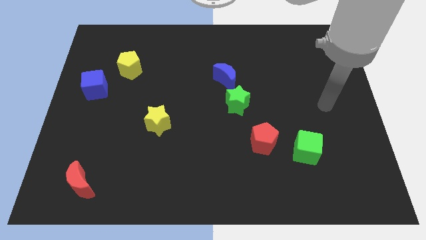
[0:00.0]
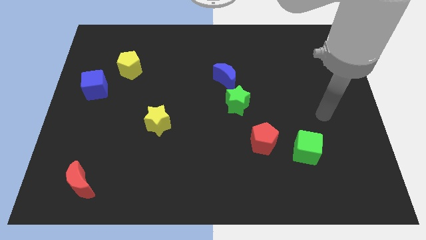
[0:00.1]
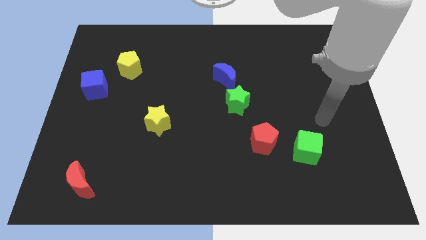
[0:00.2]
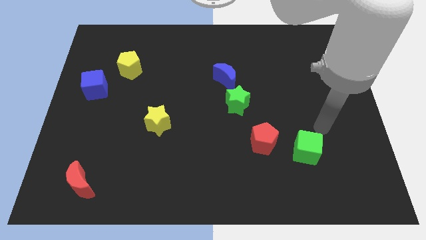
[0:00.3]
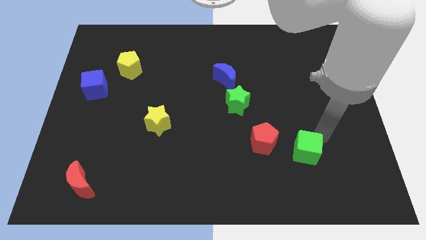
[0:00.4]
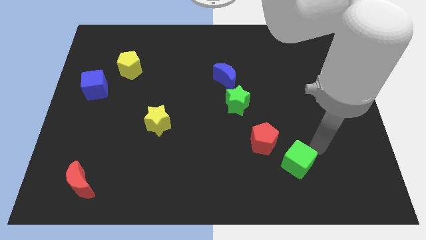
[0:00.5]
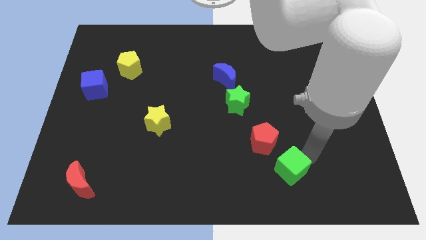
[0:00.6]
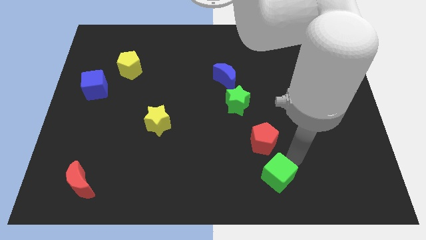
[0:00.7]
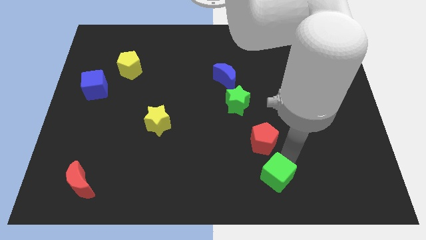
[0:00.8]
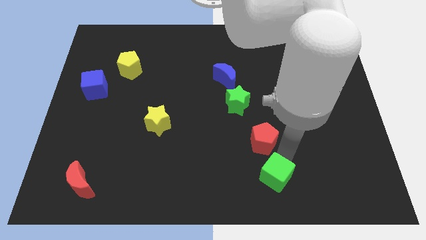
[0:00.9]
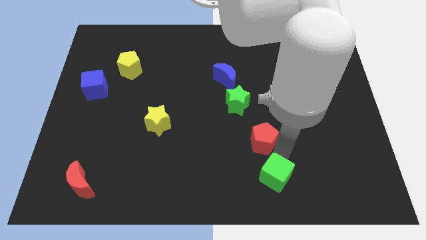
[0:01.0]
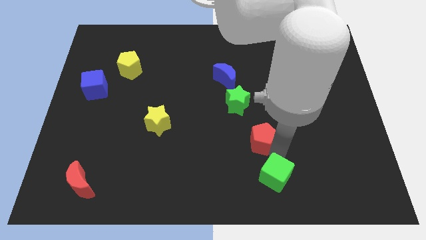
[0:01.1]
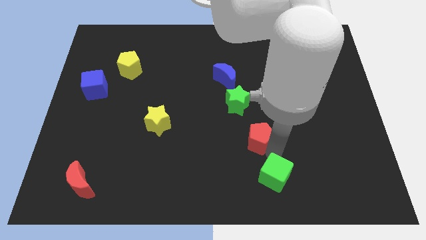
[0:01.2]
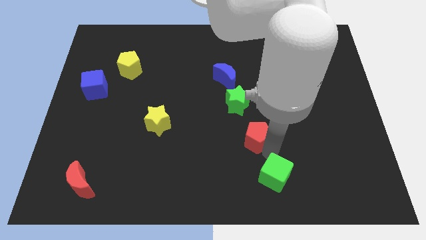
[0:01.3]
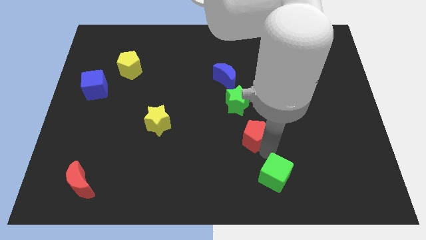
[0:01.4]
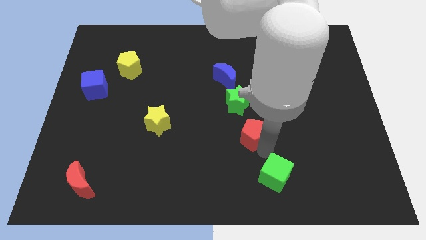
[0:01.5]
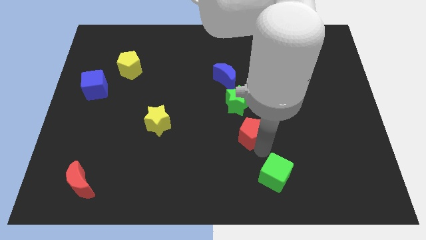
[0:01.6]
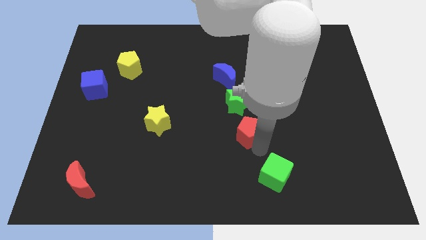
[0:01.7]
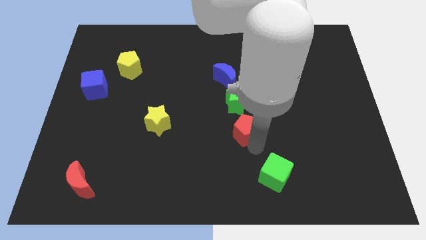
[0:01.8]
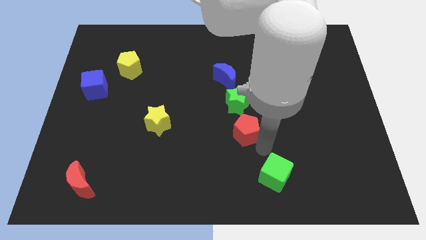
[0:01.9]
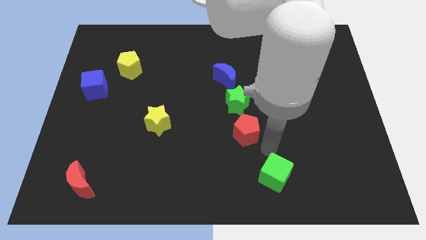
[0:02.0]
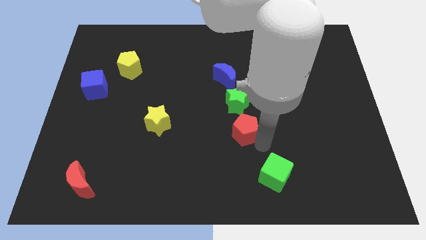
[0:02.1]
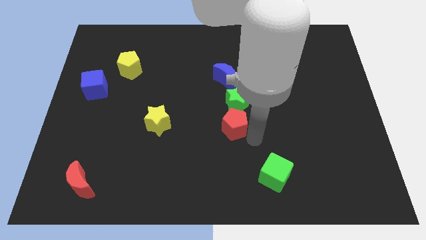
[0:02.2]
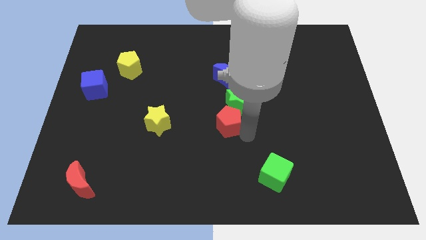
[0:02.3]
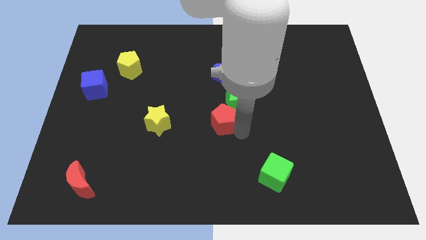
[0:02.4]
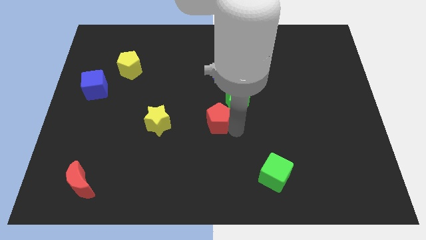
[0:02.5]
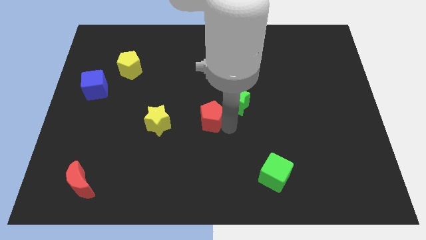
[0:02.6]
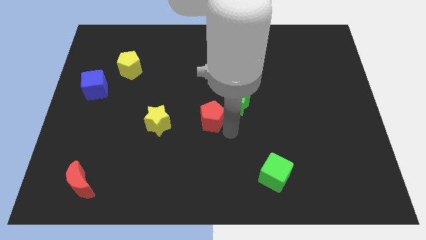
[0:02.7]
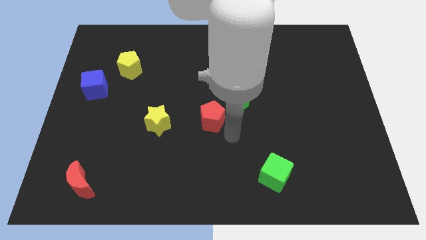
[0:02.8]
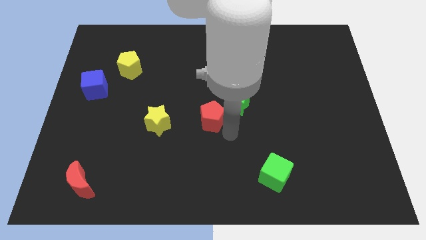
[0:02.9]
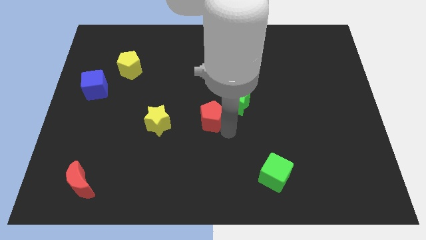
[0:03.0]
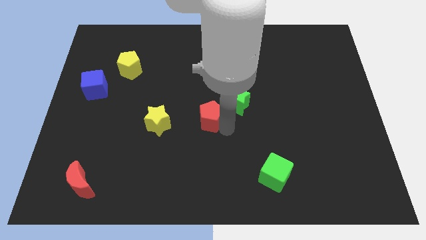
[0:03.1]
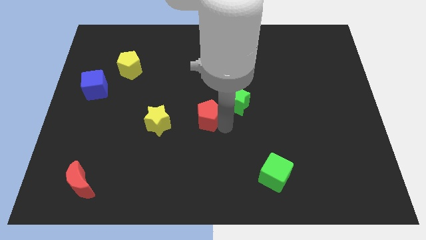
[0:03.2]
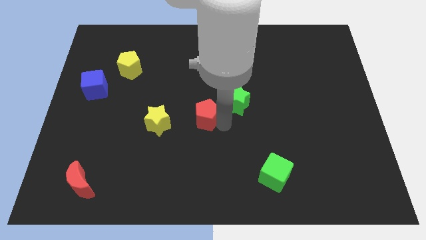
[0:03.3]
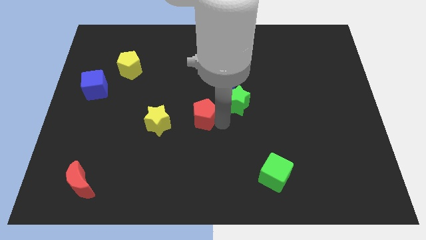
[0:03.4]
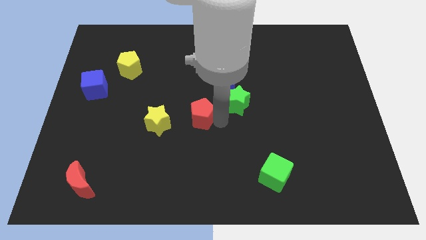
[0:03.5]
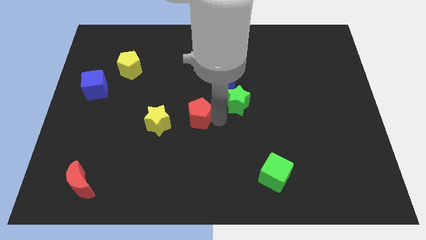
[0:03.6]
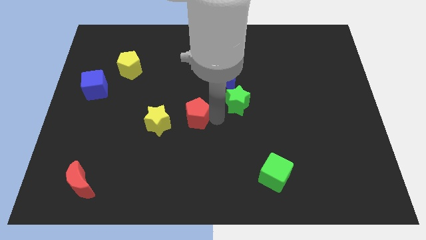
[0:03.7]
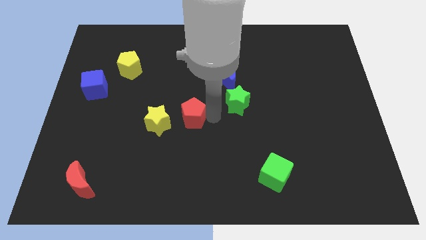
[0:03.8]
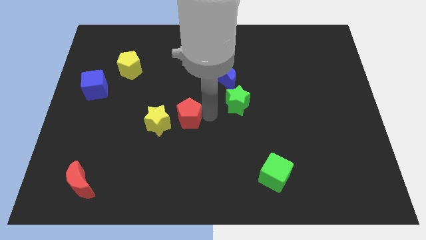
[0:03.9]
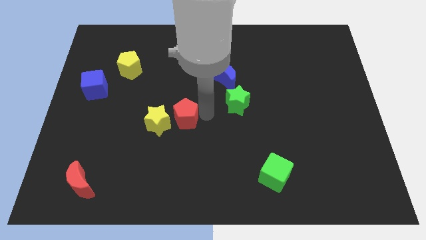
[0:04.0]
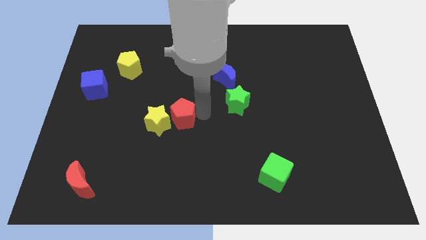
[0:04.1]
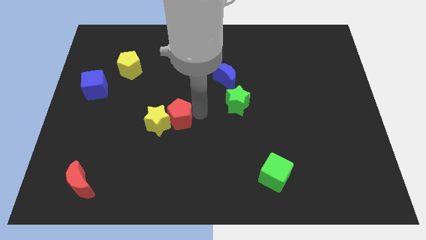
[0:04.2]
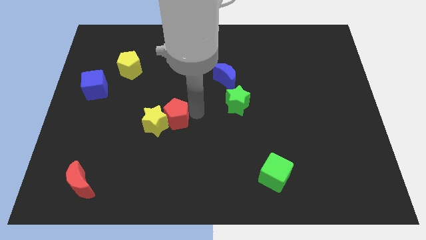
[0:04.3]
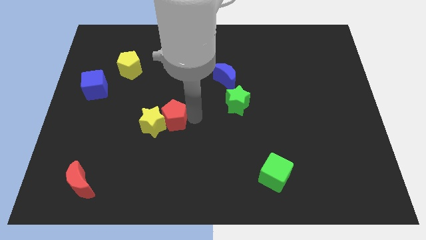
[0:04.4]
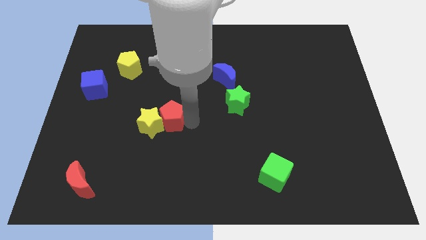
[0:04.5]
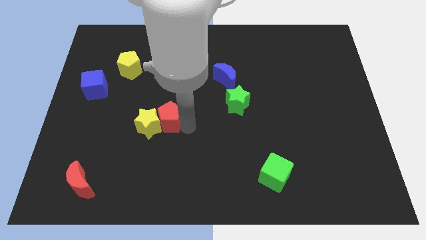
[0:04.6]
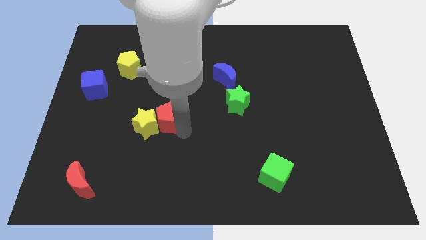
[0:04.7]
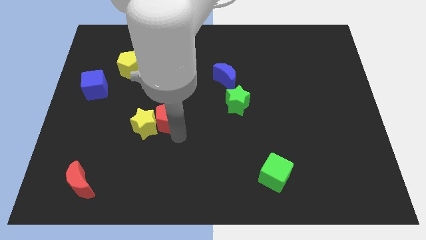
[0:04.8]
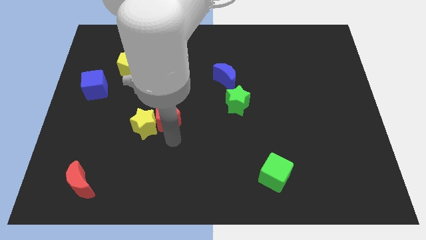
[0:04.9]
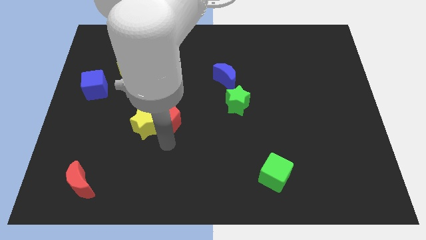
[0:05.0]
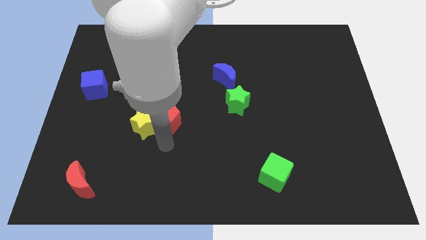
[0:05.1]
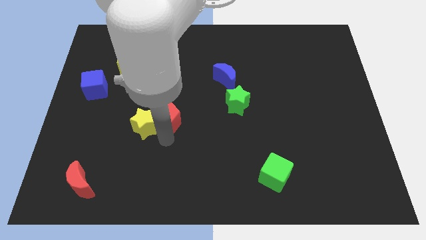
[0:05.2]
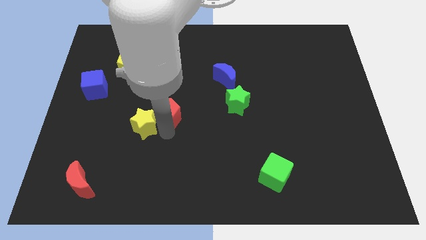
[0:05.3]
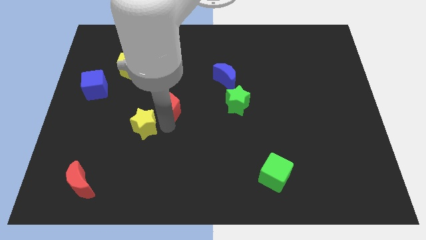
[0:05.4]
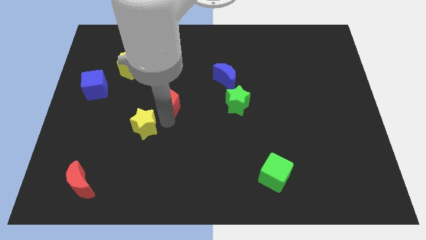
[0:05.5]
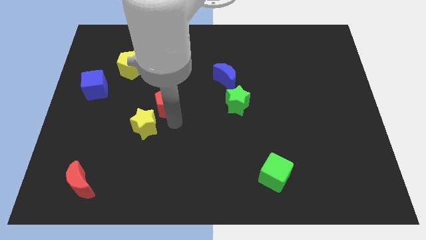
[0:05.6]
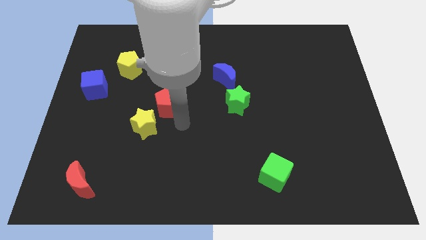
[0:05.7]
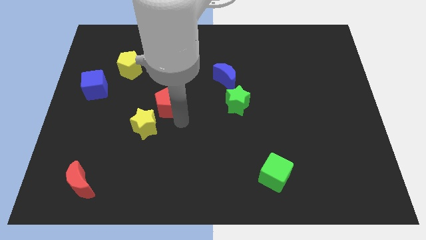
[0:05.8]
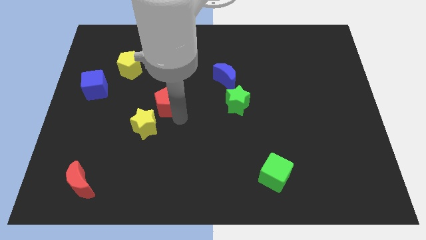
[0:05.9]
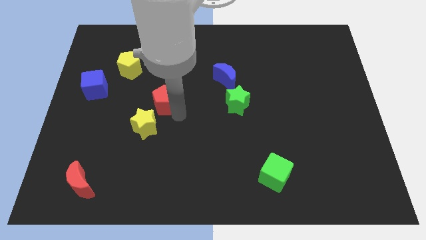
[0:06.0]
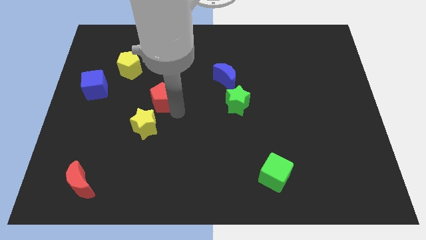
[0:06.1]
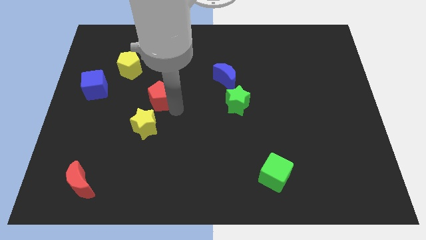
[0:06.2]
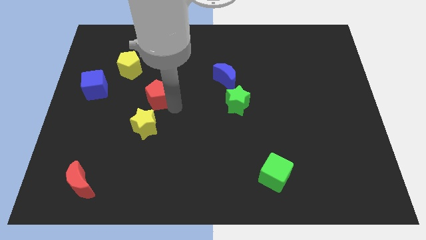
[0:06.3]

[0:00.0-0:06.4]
slide the red pentagon diagonally down and to the right of the yellow pentagon

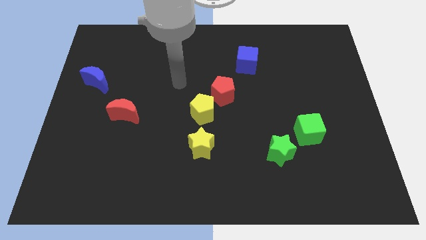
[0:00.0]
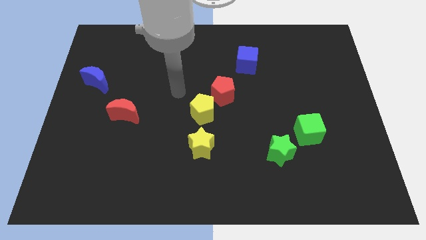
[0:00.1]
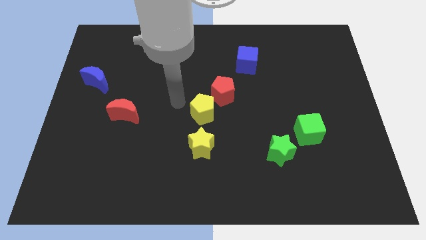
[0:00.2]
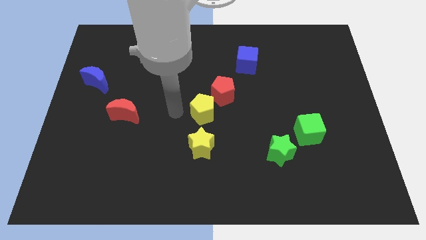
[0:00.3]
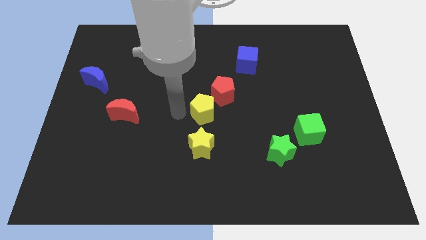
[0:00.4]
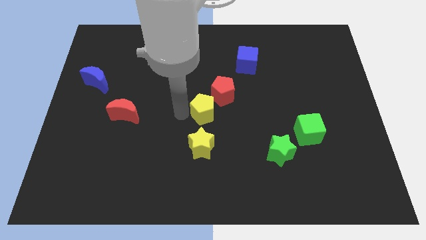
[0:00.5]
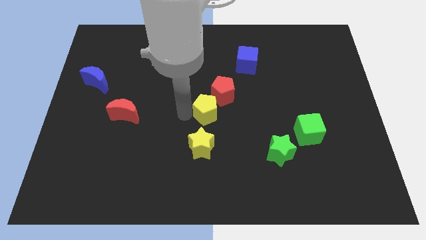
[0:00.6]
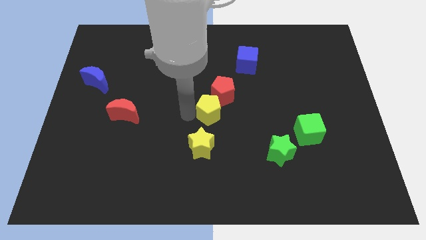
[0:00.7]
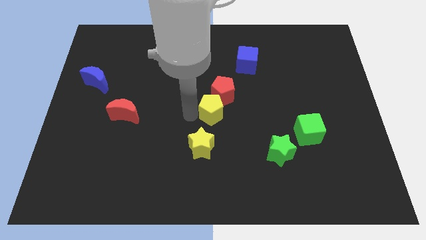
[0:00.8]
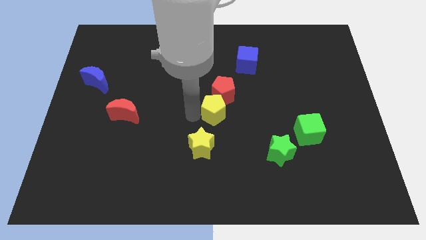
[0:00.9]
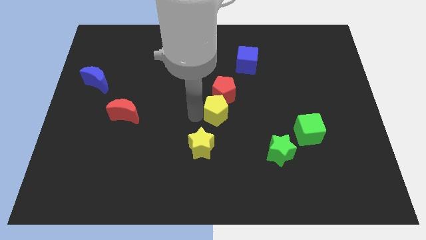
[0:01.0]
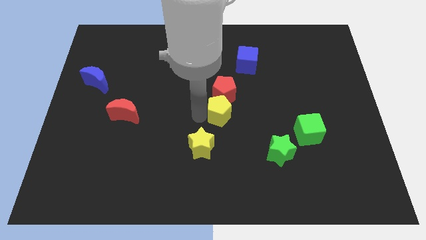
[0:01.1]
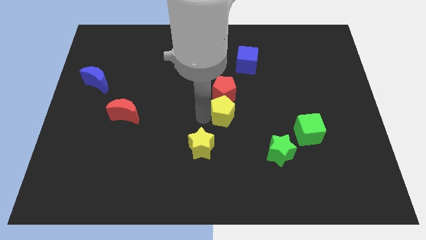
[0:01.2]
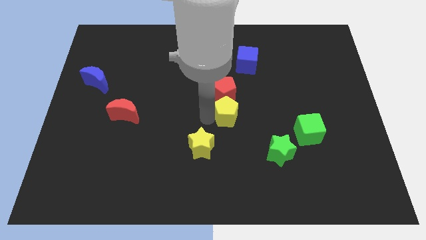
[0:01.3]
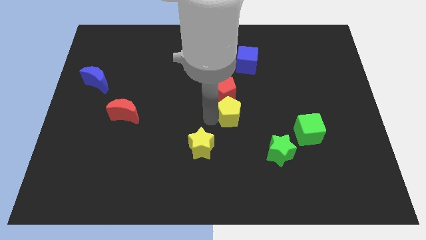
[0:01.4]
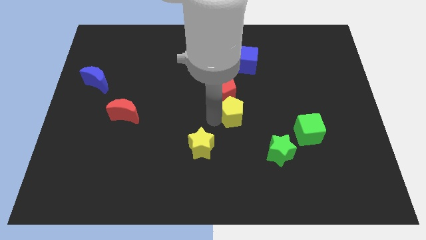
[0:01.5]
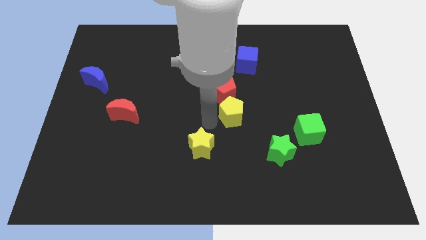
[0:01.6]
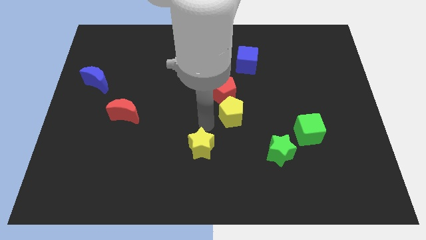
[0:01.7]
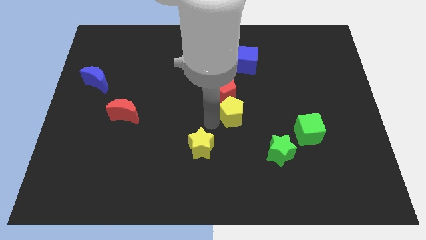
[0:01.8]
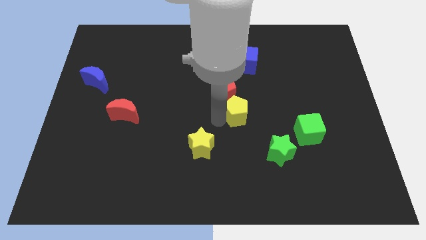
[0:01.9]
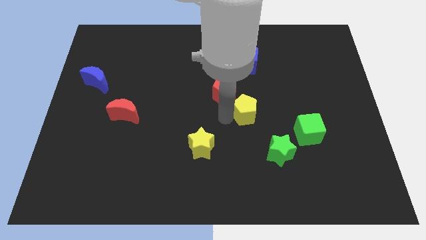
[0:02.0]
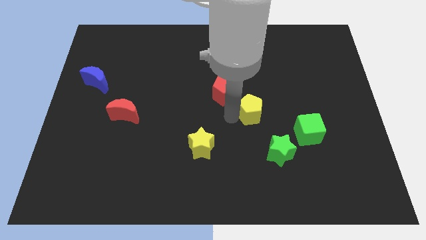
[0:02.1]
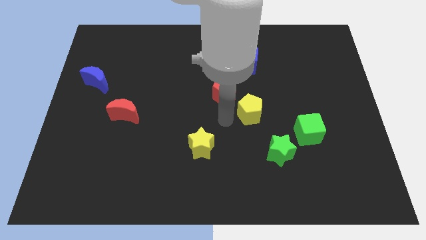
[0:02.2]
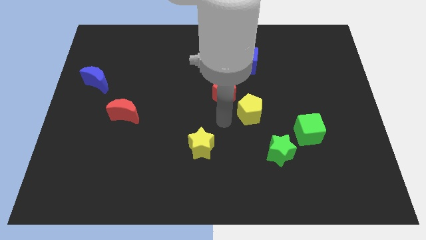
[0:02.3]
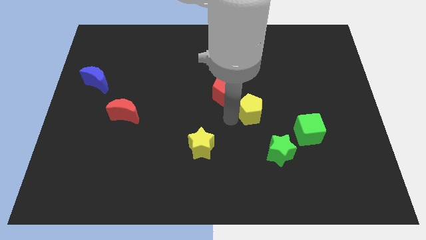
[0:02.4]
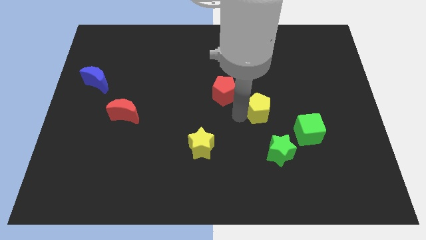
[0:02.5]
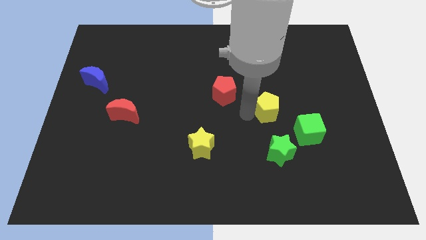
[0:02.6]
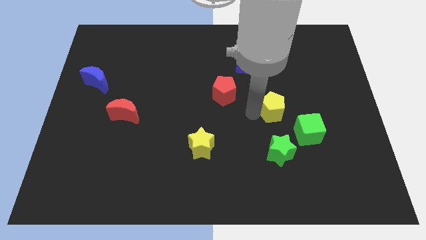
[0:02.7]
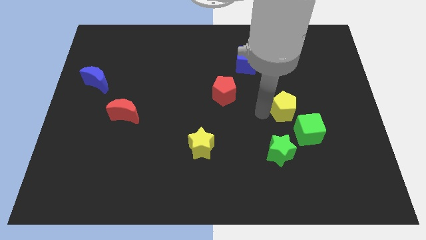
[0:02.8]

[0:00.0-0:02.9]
move the yellow pentagon to the top side of the green cube
